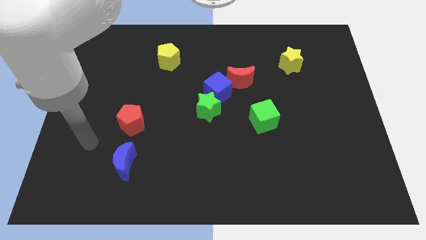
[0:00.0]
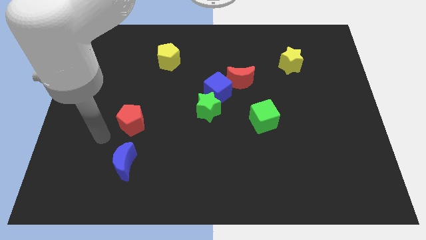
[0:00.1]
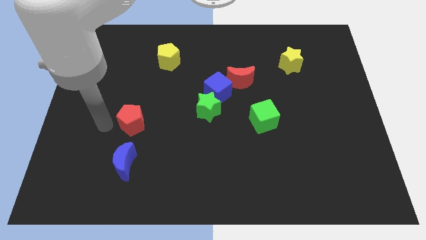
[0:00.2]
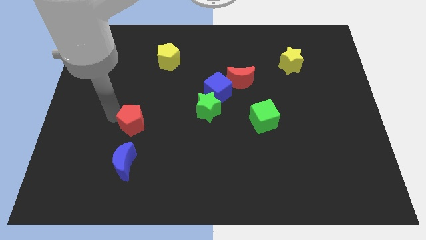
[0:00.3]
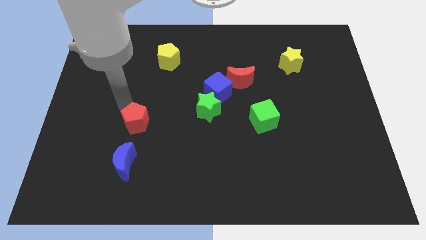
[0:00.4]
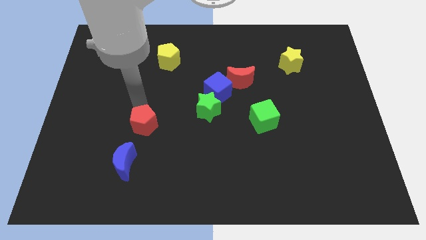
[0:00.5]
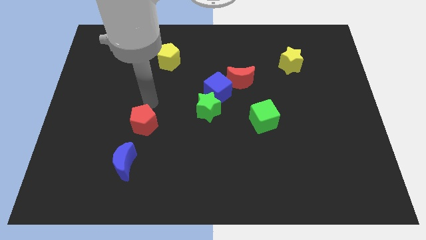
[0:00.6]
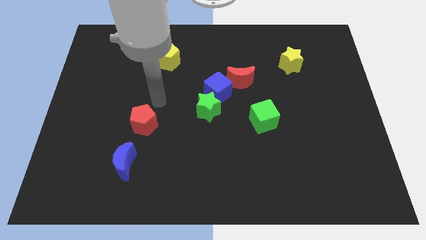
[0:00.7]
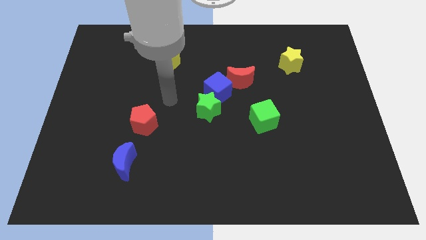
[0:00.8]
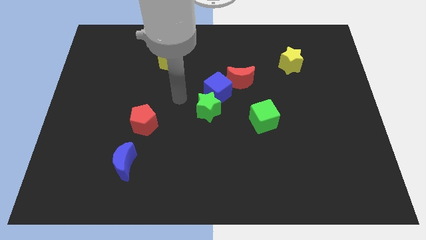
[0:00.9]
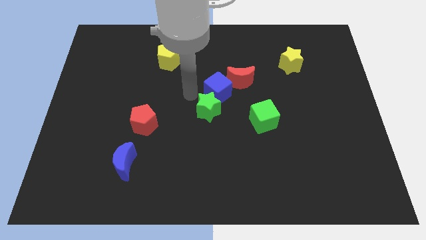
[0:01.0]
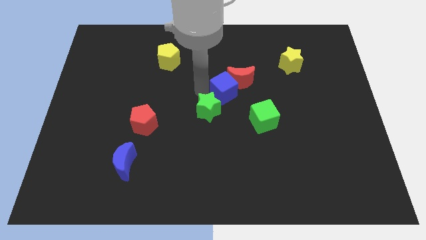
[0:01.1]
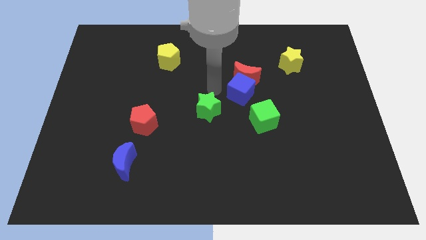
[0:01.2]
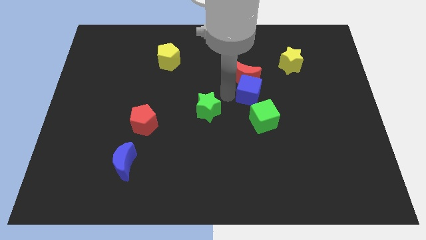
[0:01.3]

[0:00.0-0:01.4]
pull the green star apart from the blue cube

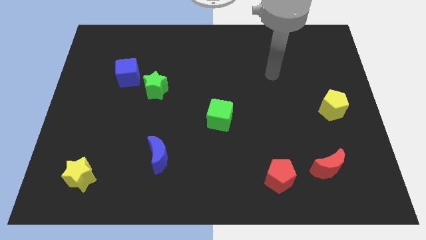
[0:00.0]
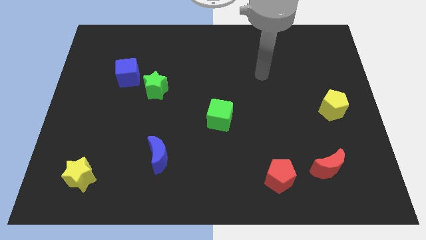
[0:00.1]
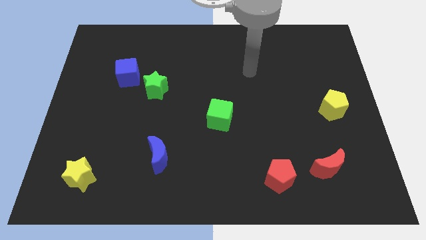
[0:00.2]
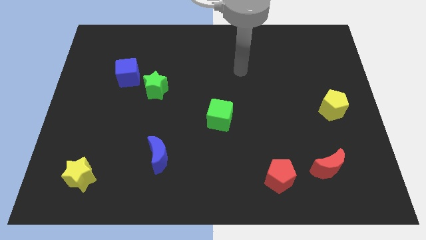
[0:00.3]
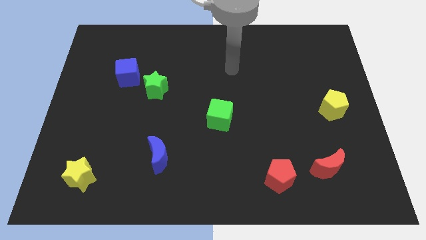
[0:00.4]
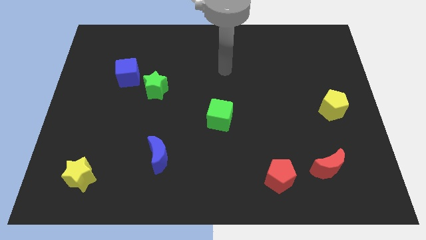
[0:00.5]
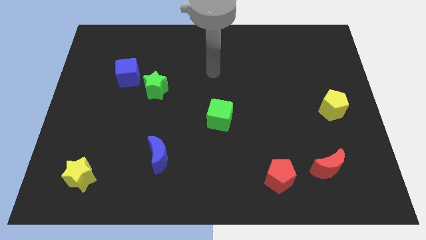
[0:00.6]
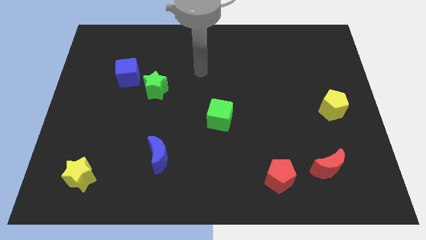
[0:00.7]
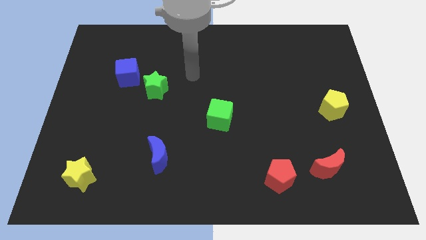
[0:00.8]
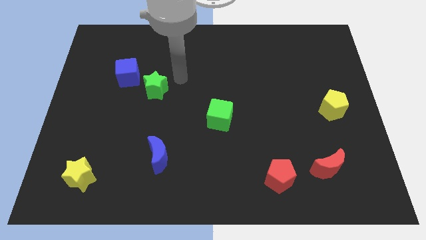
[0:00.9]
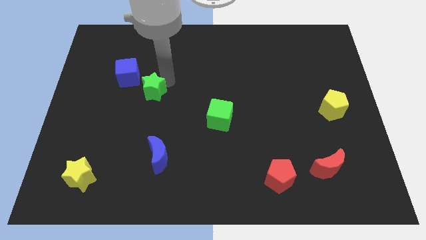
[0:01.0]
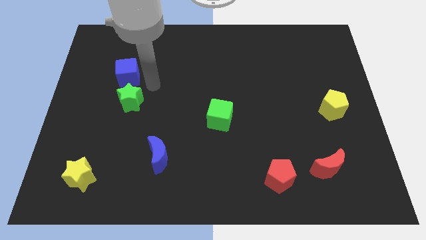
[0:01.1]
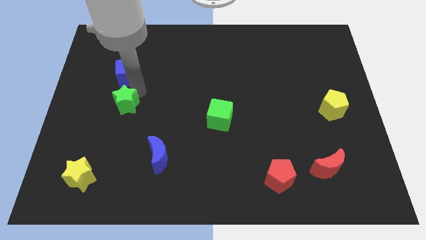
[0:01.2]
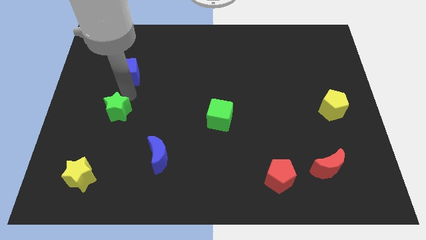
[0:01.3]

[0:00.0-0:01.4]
pull the blue cube apart from the green star

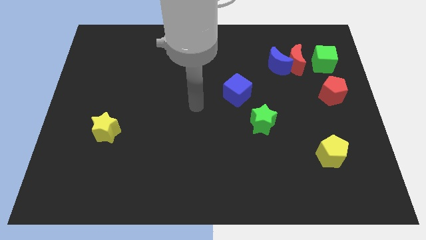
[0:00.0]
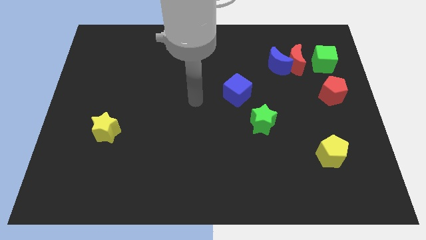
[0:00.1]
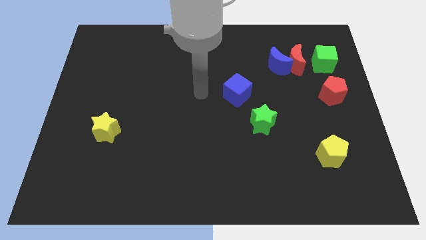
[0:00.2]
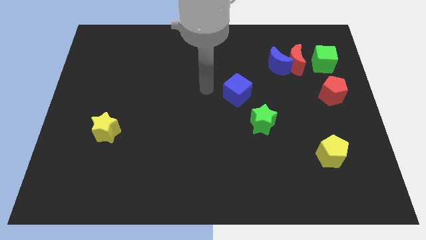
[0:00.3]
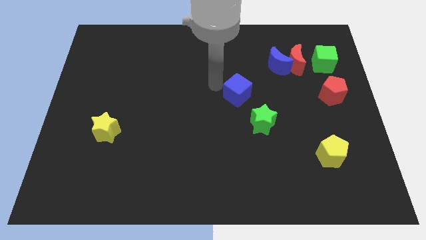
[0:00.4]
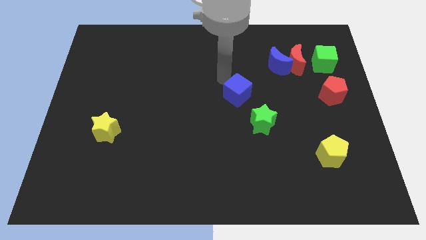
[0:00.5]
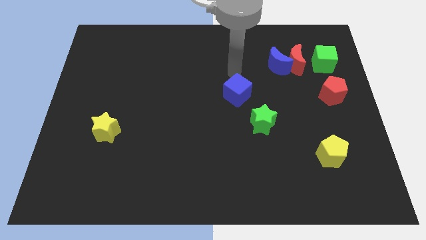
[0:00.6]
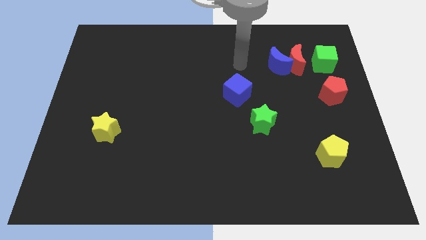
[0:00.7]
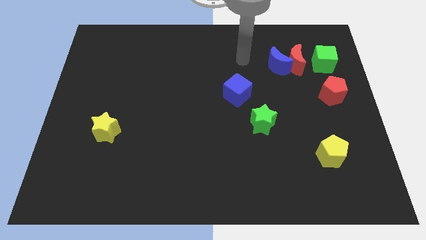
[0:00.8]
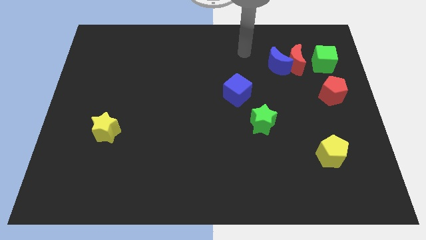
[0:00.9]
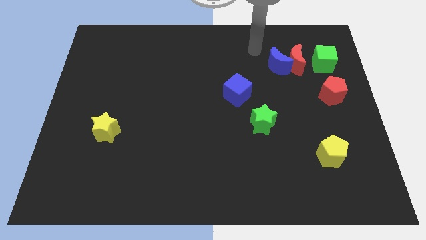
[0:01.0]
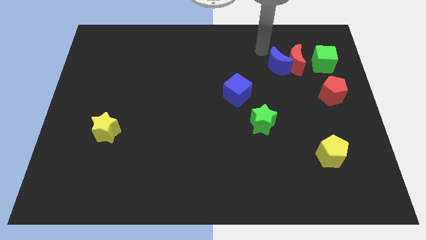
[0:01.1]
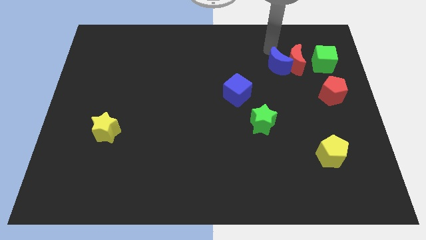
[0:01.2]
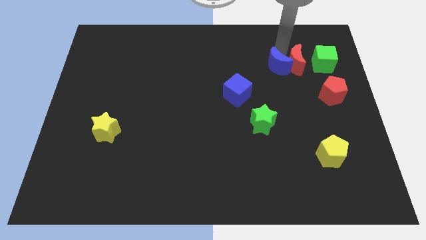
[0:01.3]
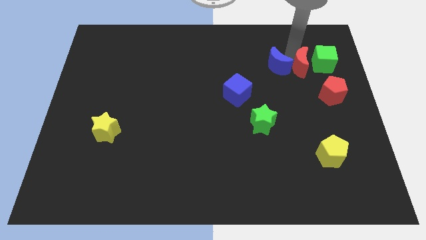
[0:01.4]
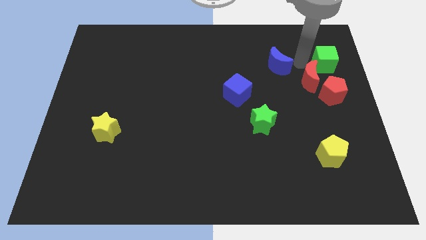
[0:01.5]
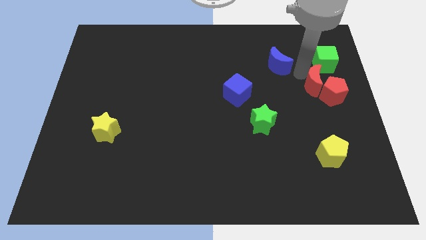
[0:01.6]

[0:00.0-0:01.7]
move the blue moon away from the red moon

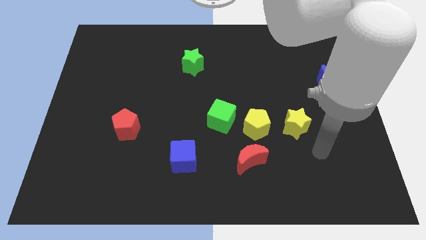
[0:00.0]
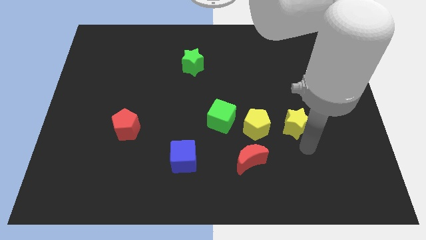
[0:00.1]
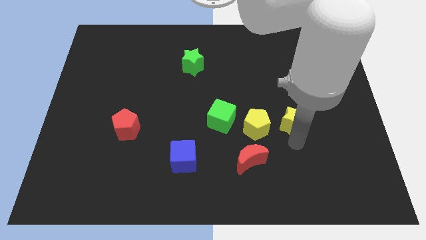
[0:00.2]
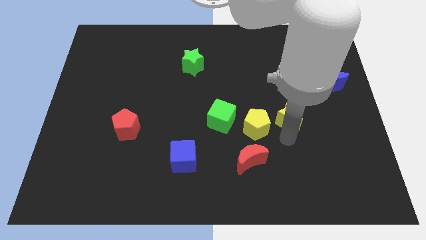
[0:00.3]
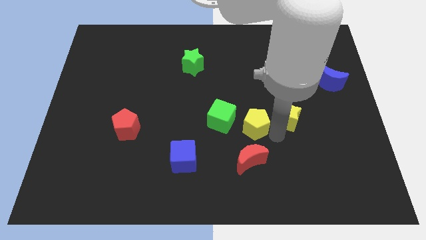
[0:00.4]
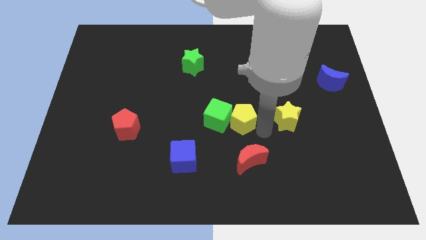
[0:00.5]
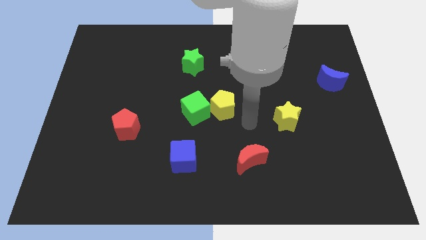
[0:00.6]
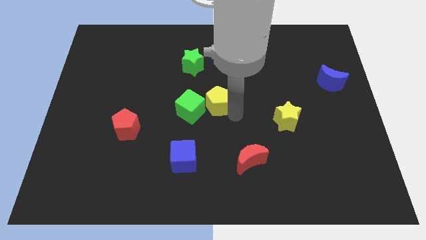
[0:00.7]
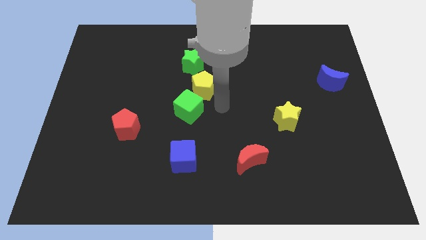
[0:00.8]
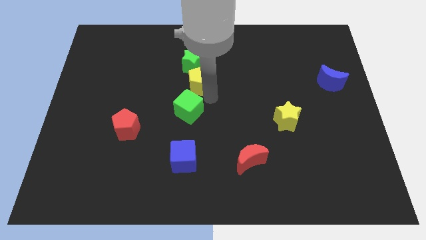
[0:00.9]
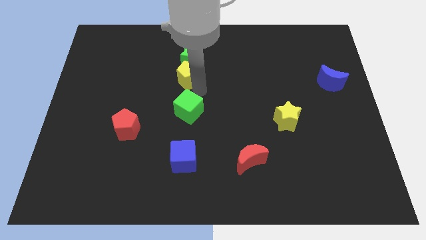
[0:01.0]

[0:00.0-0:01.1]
move the green cube away from the yellow pentagon

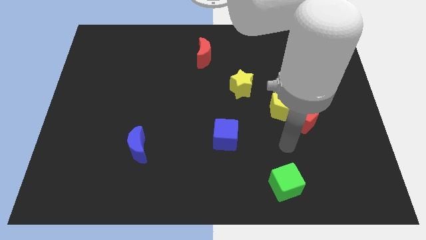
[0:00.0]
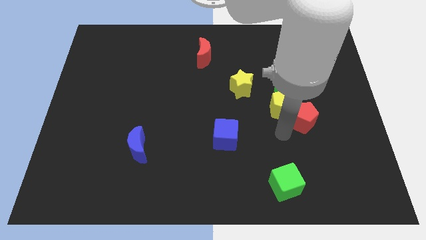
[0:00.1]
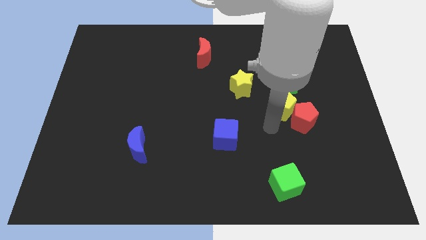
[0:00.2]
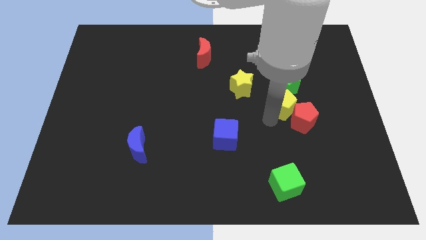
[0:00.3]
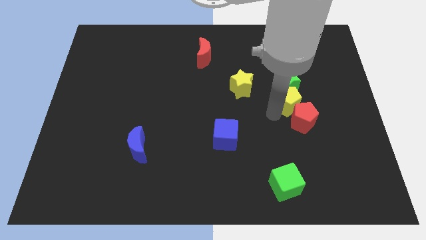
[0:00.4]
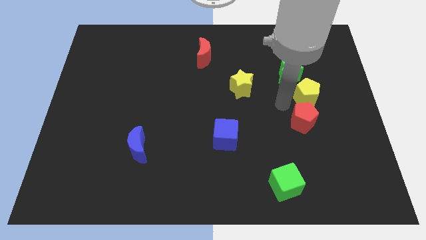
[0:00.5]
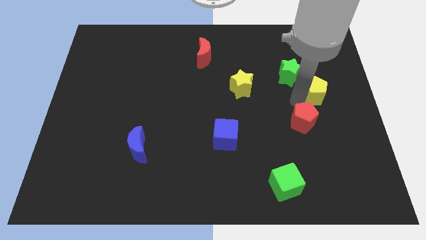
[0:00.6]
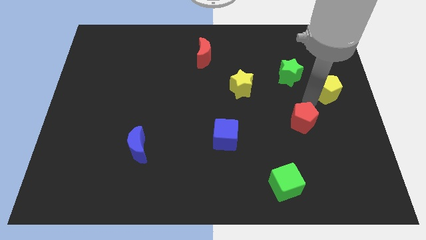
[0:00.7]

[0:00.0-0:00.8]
separate the red pentagon from the yellow pentagon

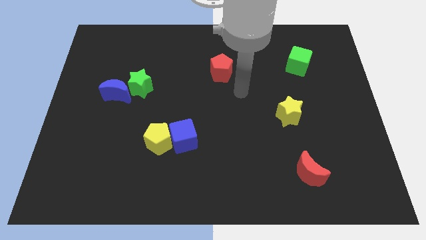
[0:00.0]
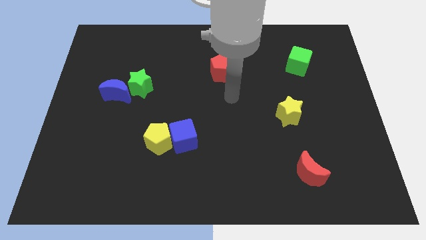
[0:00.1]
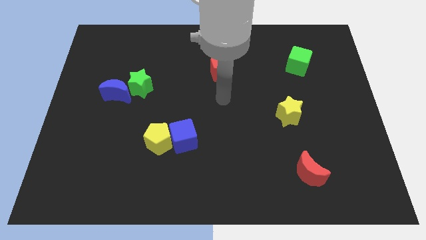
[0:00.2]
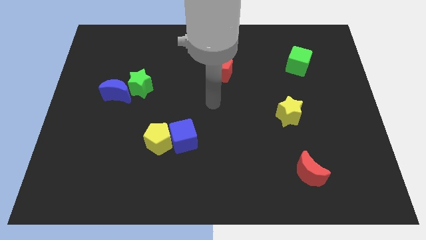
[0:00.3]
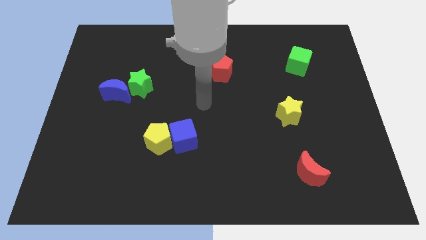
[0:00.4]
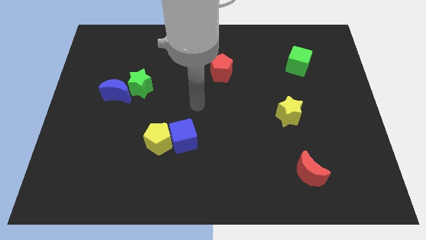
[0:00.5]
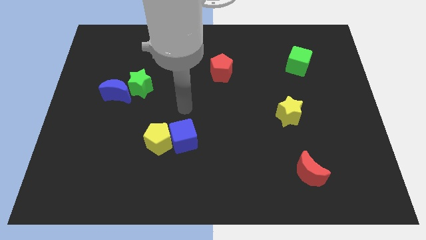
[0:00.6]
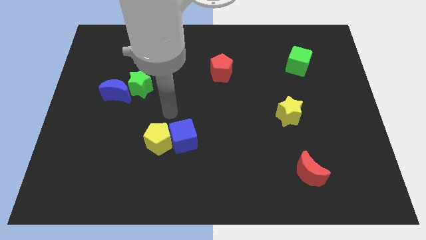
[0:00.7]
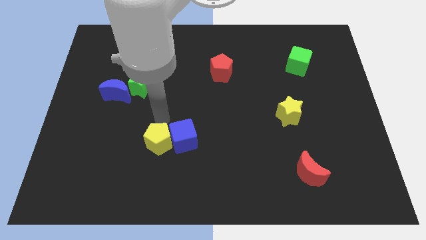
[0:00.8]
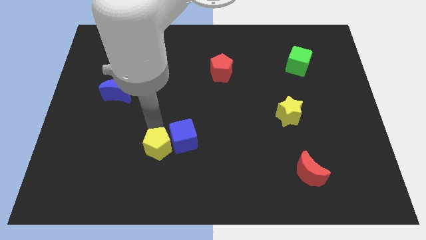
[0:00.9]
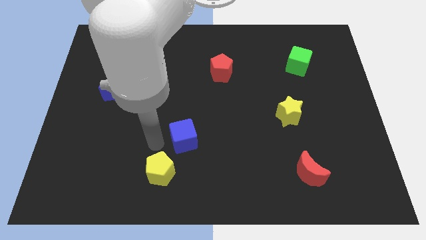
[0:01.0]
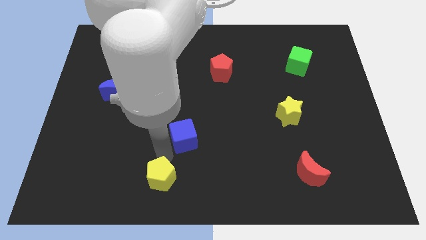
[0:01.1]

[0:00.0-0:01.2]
pull the blue cube apart from the yellow pentagon

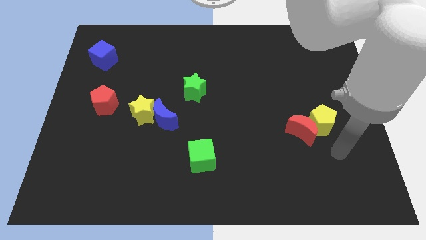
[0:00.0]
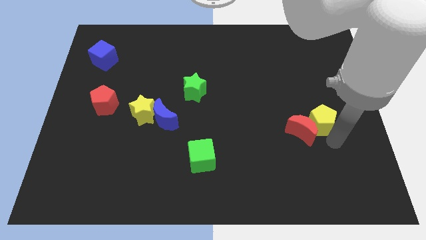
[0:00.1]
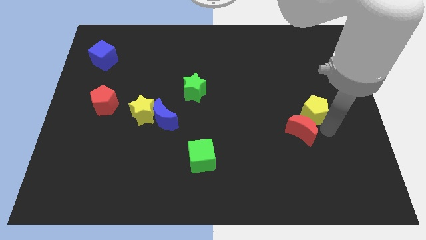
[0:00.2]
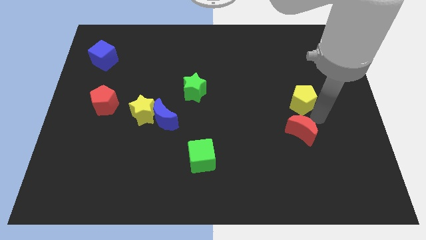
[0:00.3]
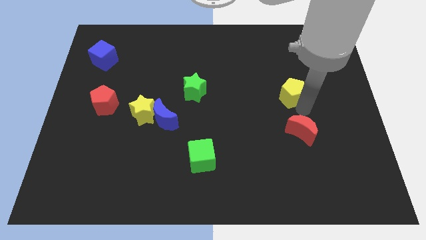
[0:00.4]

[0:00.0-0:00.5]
move the red moon away from the yellow pentagon

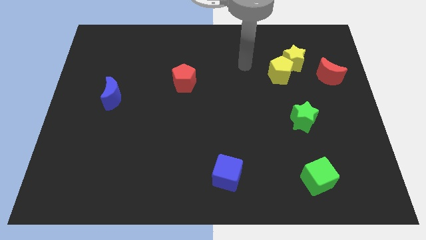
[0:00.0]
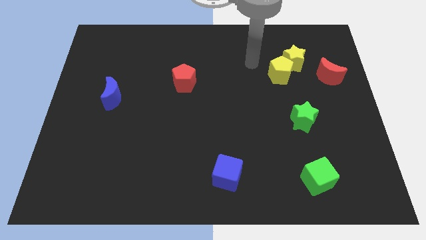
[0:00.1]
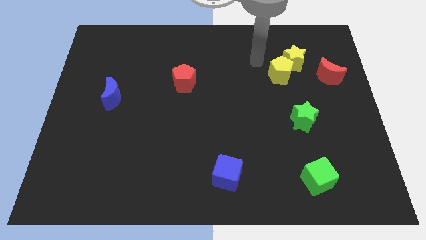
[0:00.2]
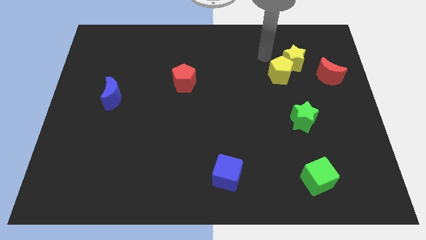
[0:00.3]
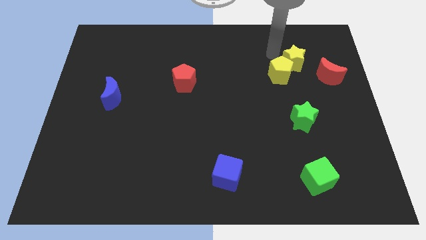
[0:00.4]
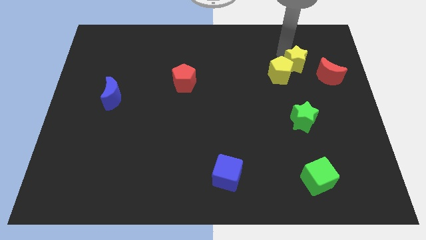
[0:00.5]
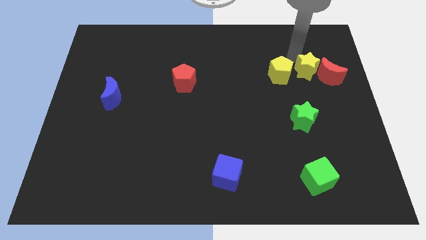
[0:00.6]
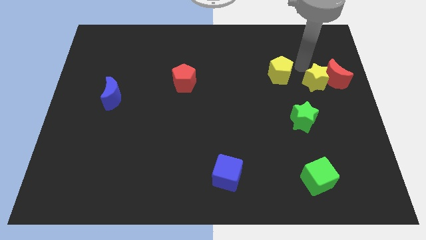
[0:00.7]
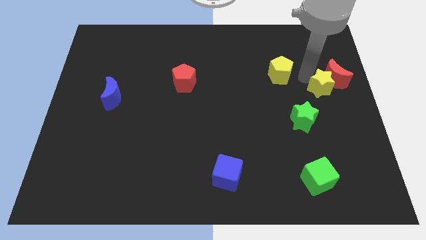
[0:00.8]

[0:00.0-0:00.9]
move the yellow pentagon away from the yellow star

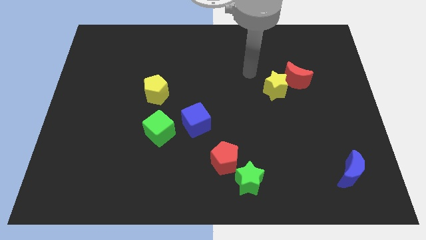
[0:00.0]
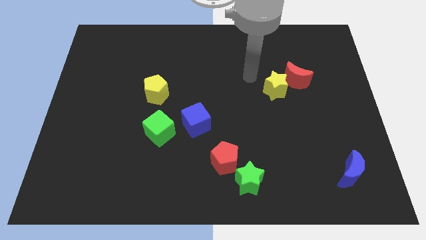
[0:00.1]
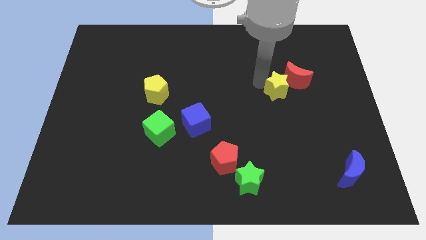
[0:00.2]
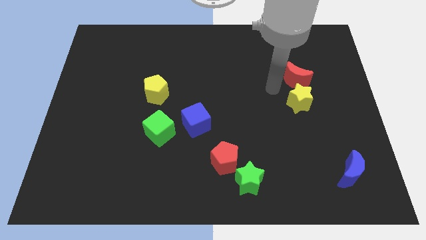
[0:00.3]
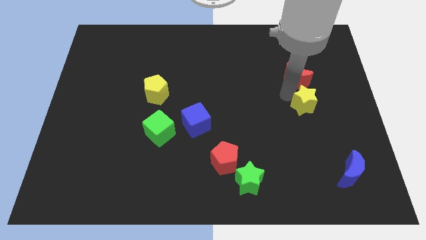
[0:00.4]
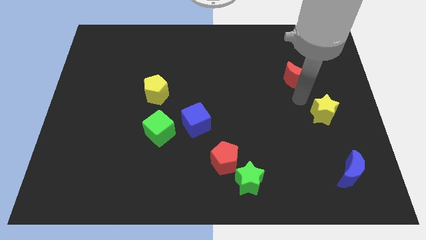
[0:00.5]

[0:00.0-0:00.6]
move the red moon away from the yellow star
